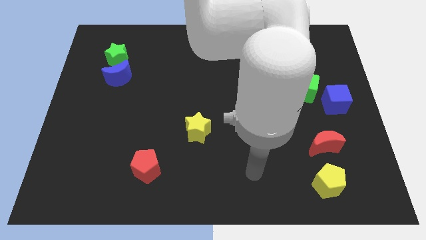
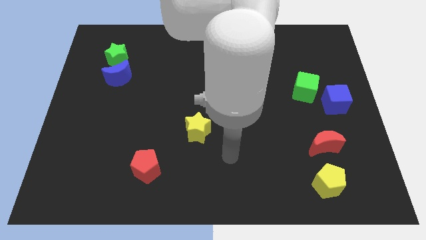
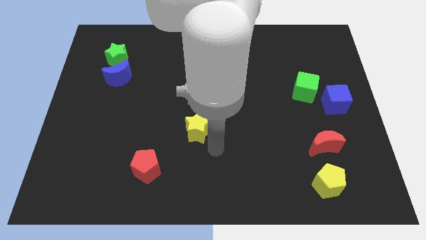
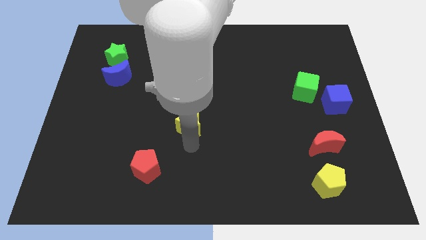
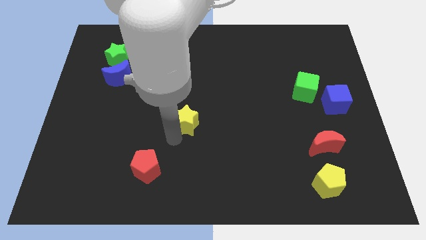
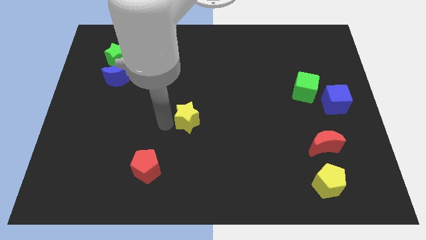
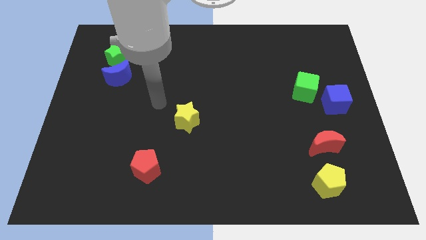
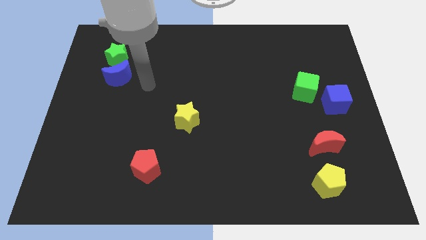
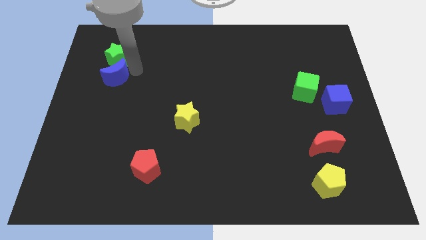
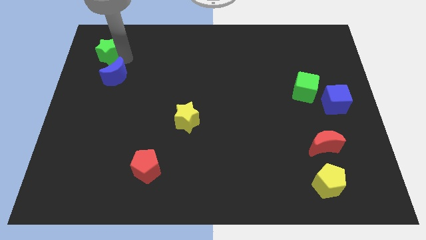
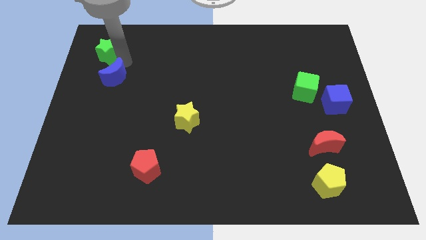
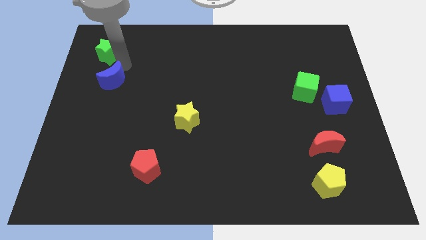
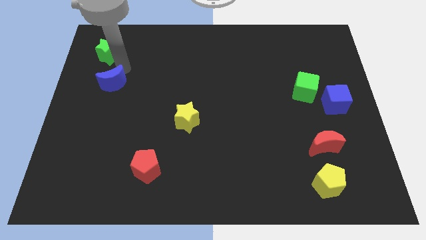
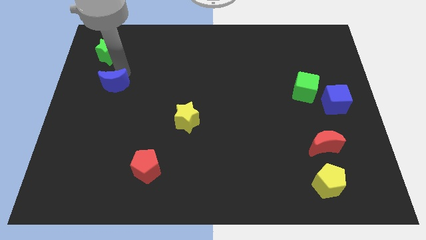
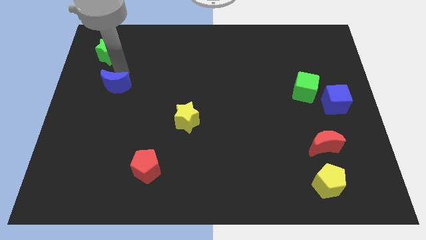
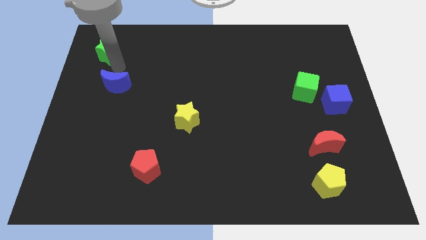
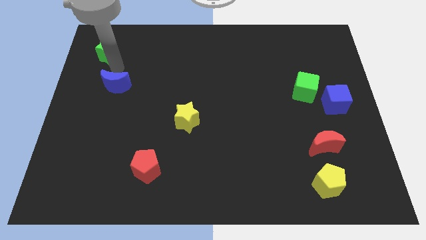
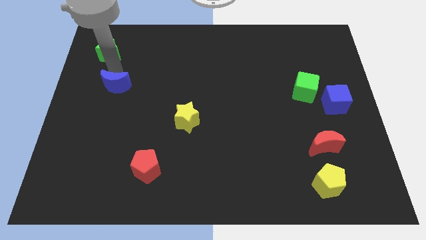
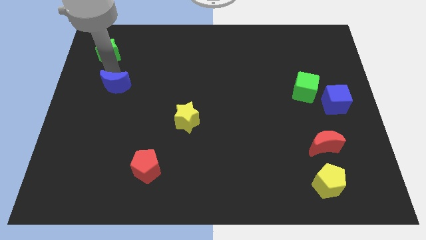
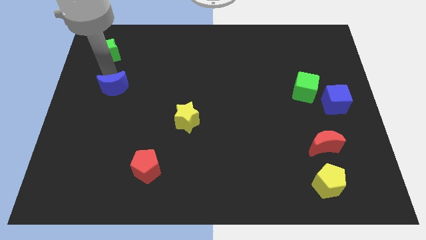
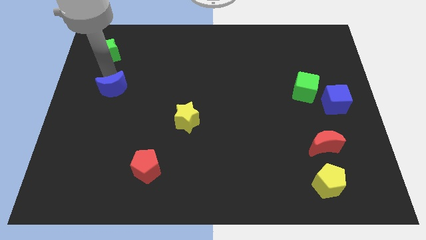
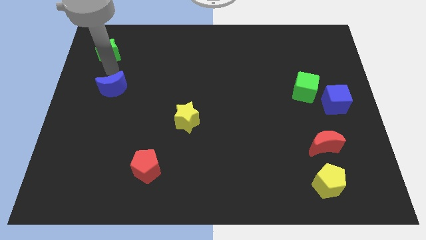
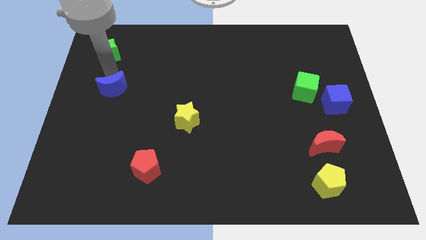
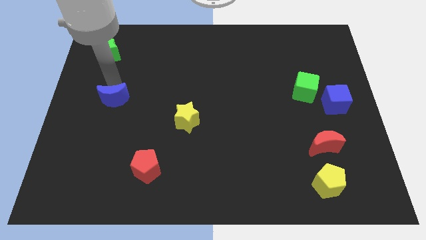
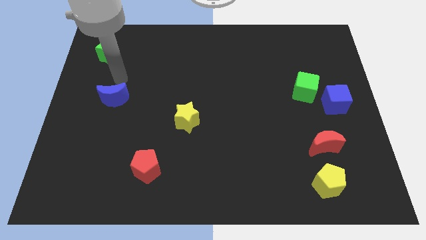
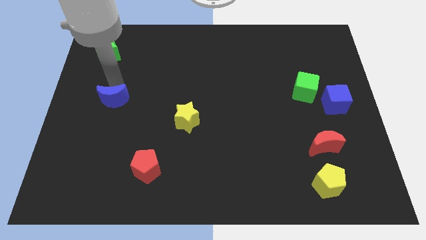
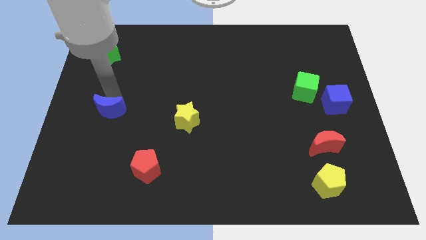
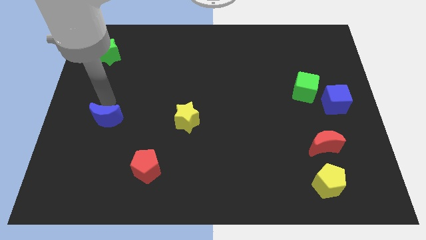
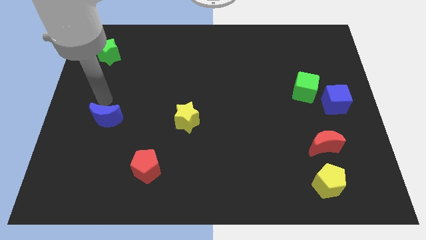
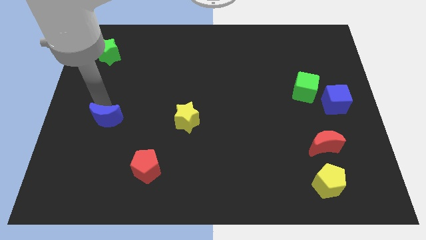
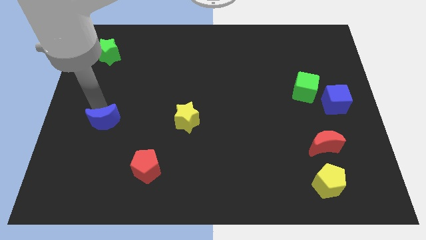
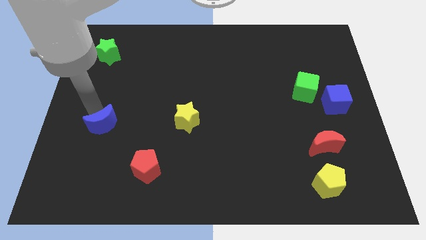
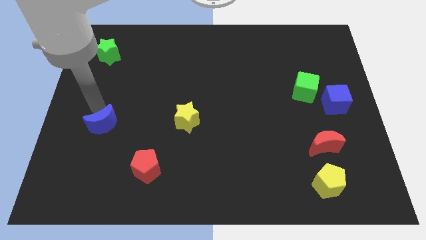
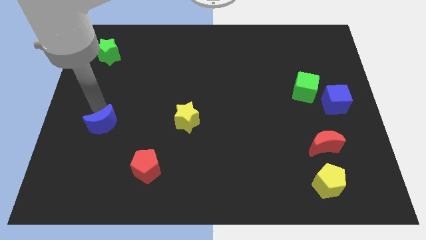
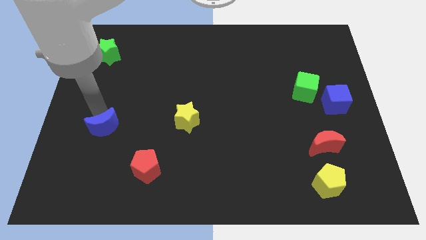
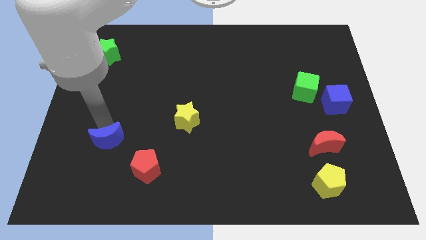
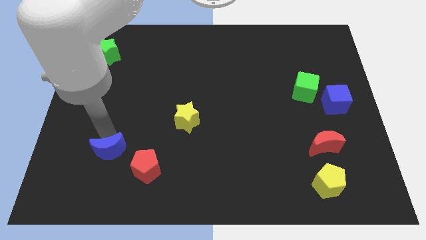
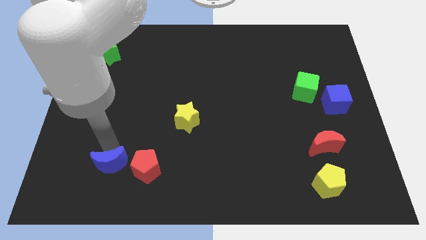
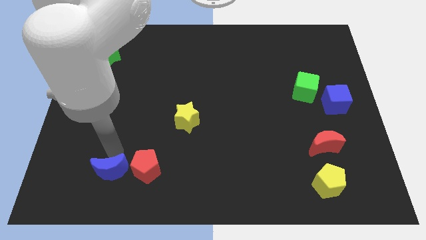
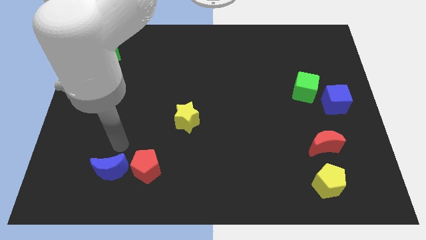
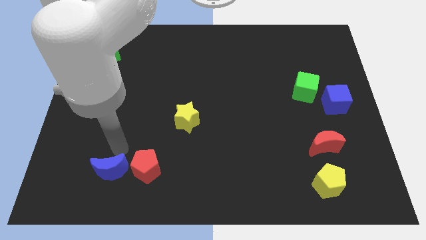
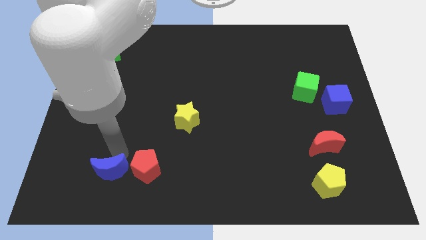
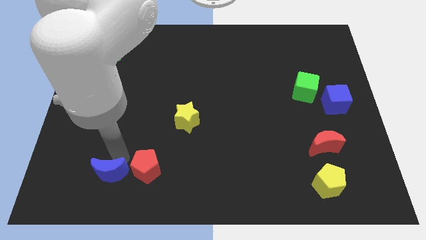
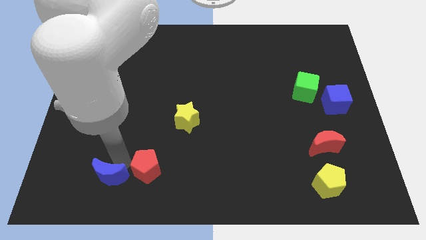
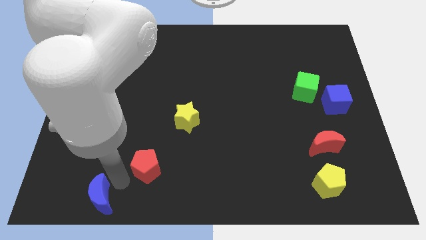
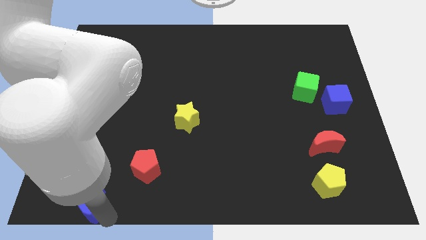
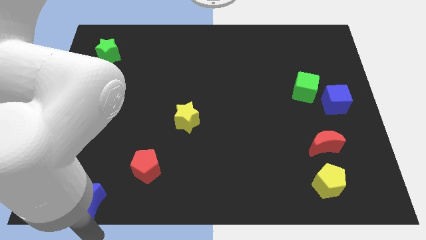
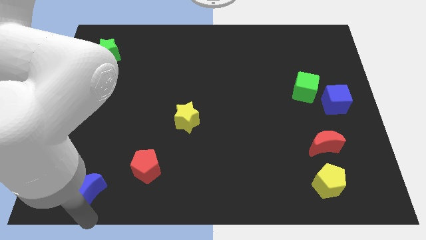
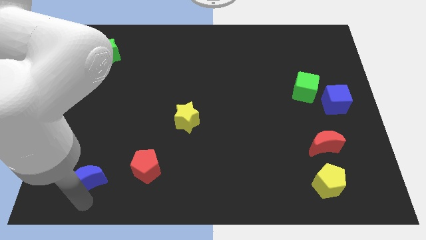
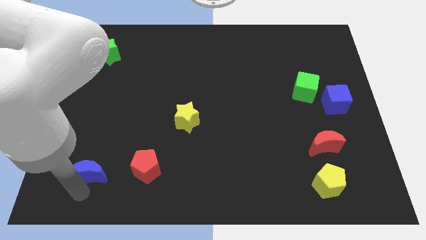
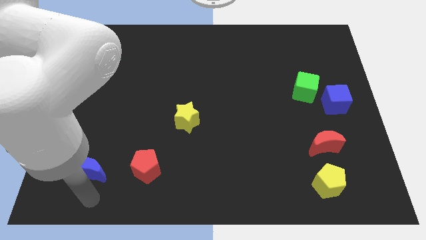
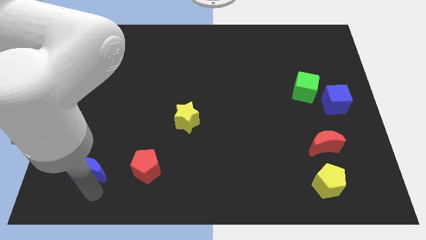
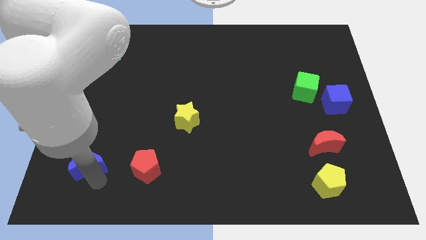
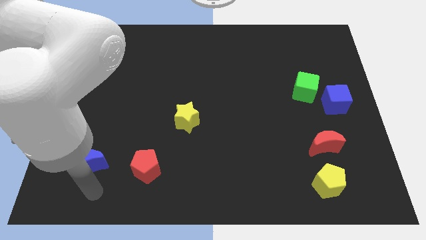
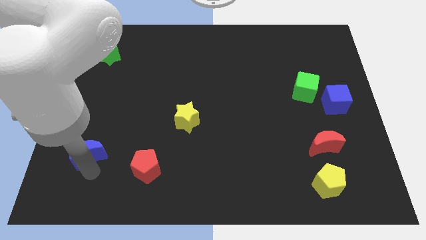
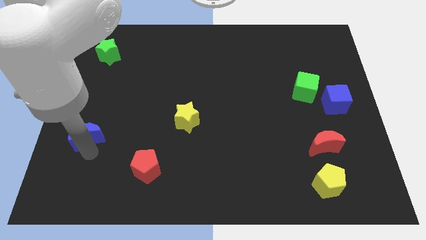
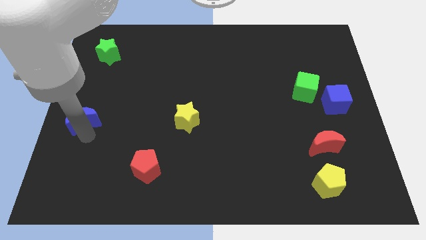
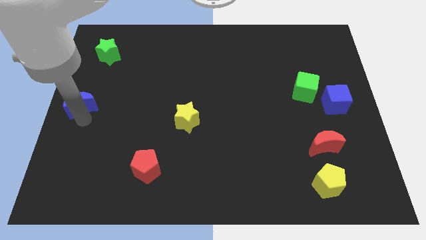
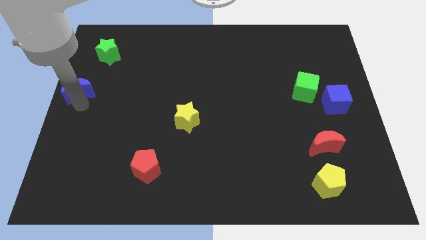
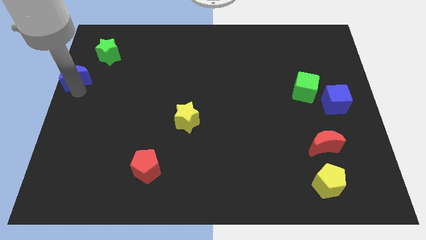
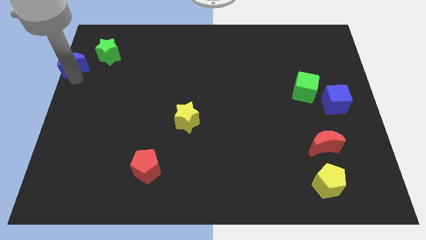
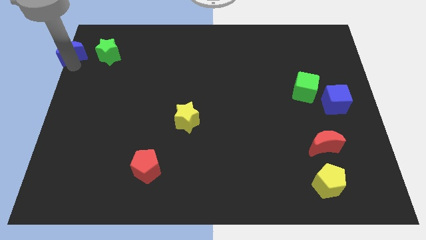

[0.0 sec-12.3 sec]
move the blue moon to the top left

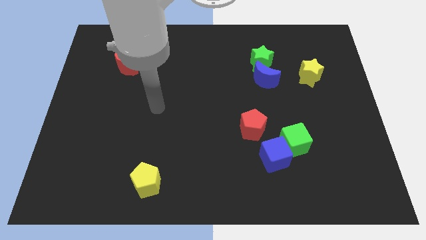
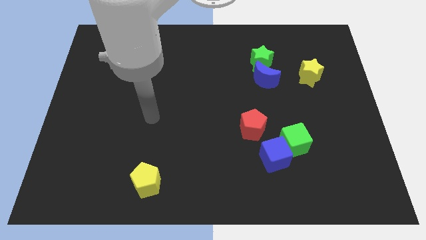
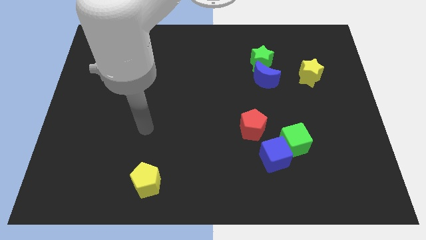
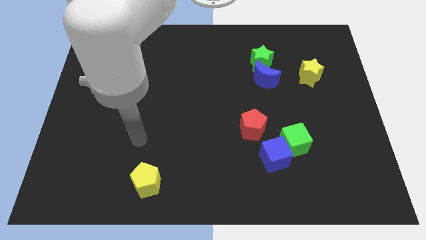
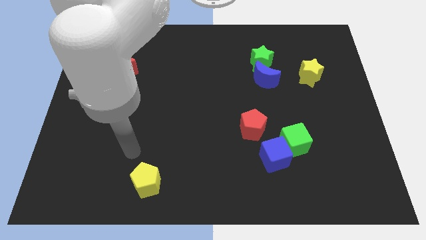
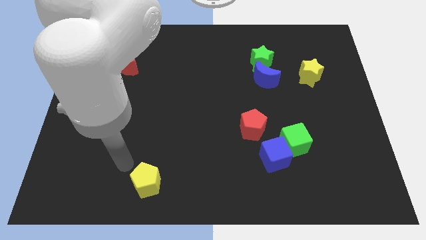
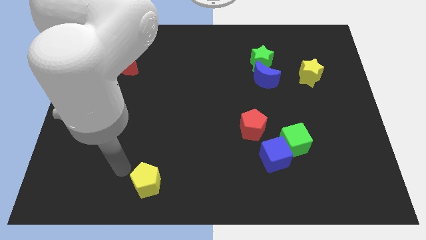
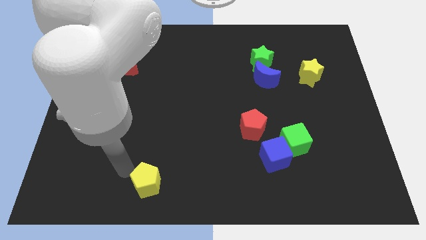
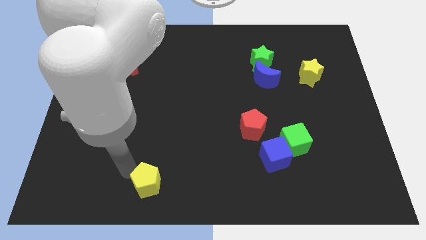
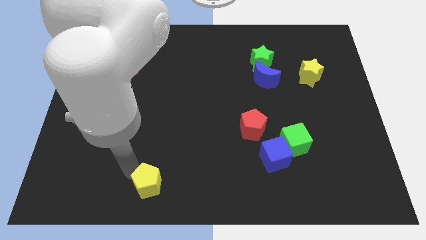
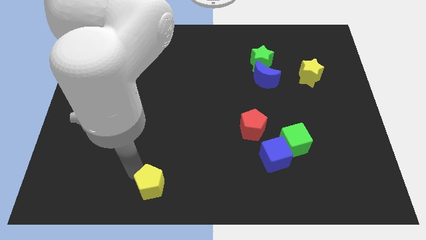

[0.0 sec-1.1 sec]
put the yellow pentagon to the bottom
